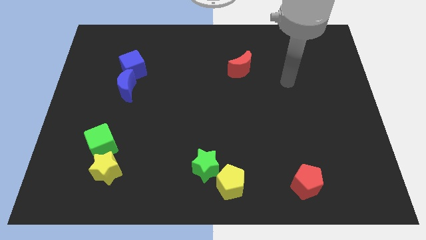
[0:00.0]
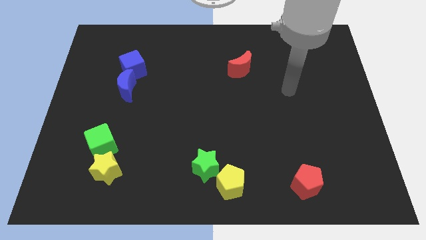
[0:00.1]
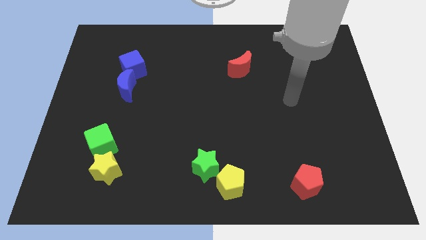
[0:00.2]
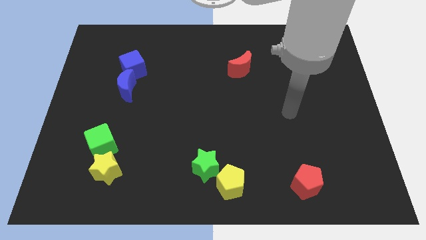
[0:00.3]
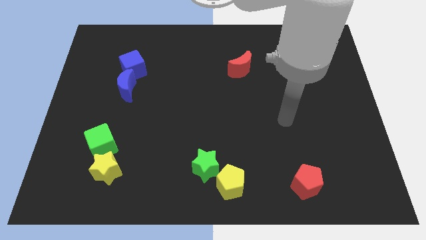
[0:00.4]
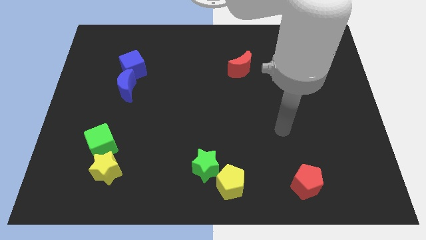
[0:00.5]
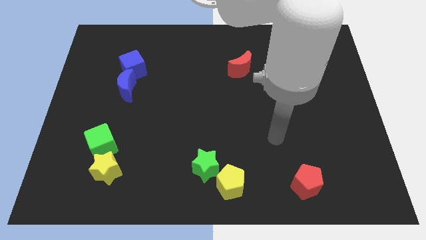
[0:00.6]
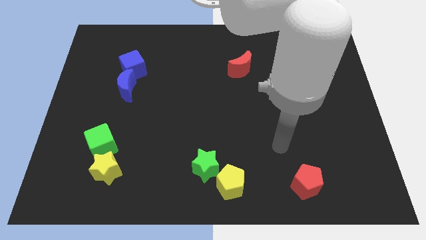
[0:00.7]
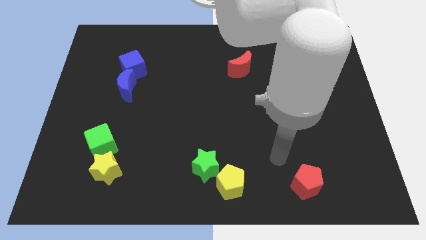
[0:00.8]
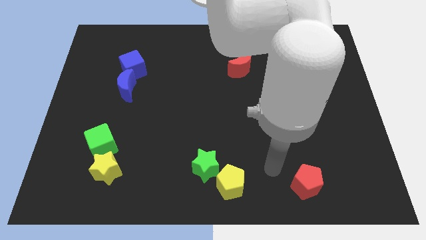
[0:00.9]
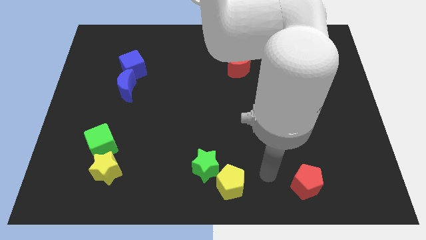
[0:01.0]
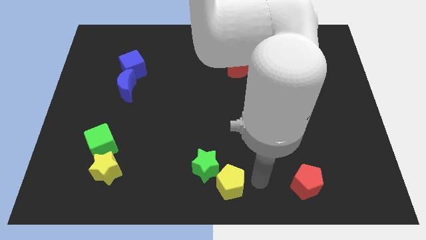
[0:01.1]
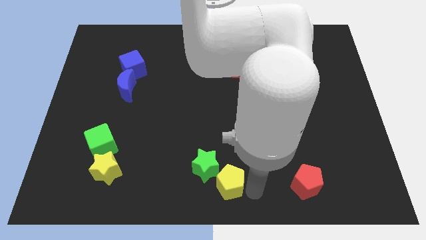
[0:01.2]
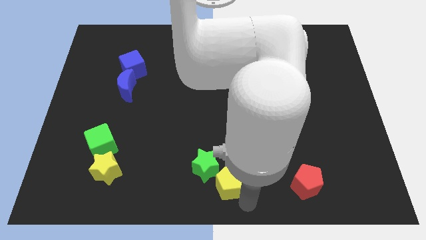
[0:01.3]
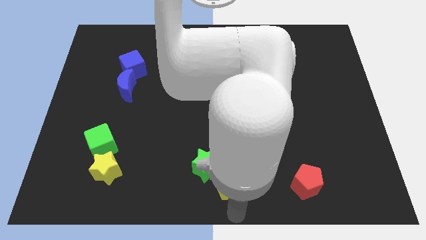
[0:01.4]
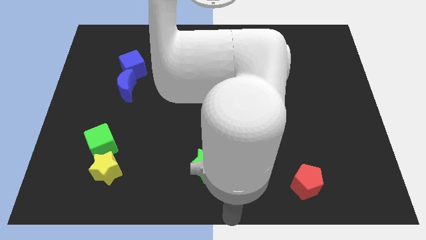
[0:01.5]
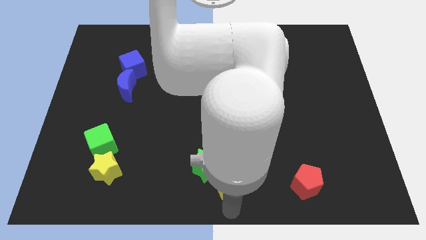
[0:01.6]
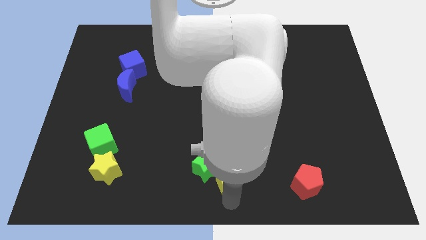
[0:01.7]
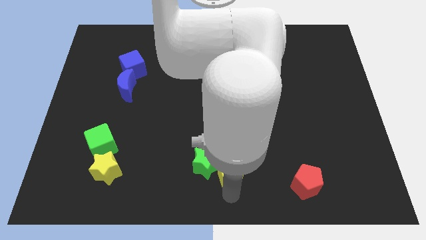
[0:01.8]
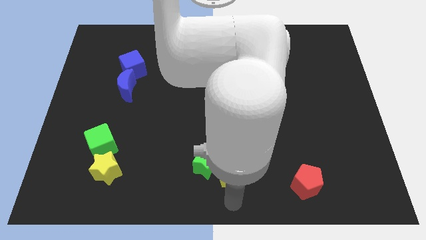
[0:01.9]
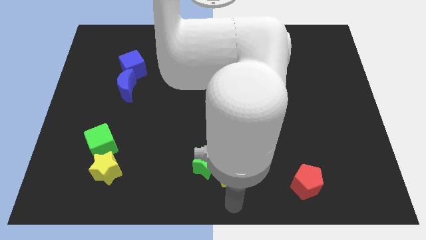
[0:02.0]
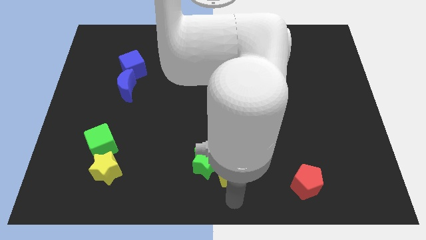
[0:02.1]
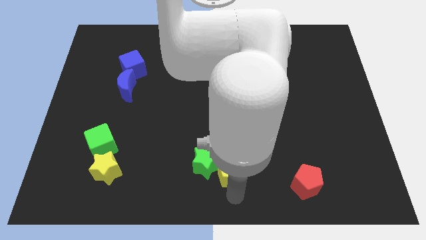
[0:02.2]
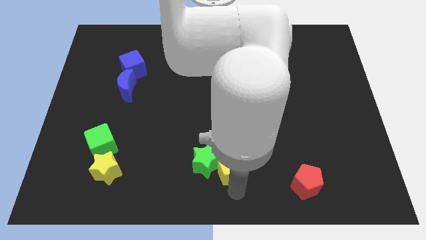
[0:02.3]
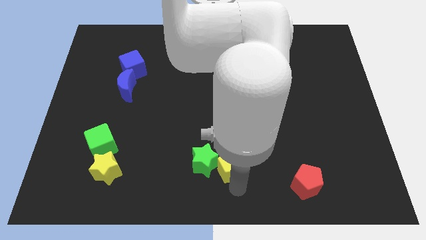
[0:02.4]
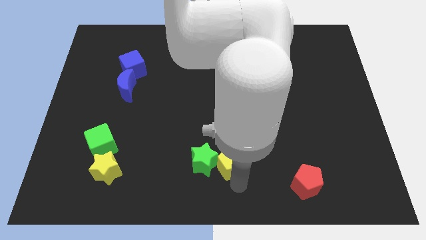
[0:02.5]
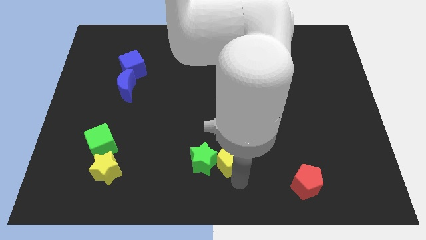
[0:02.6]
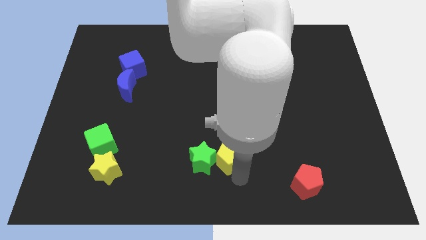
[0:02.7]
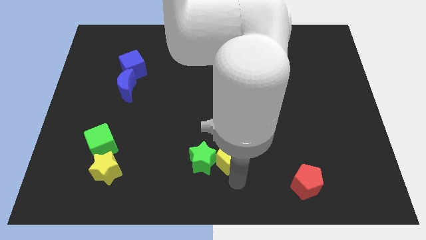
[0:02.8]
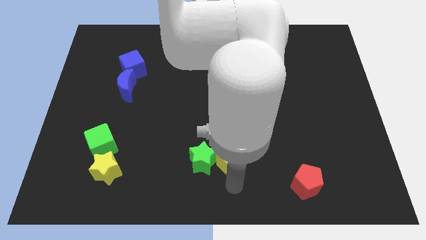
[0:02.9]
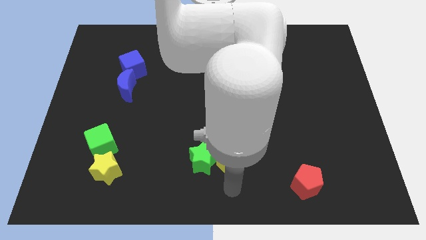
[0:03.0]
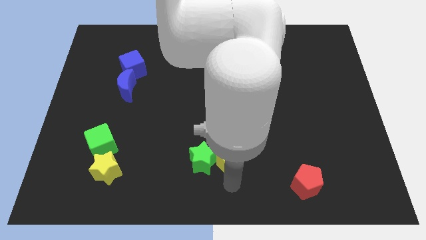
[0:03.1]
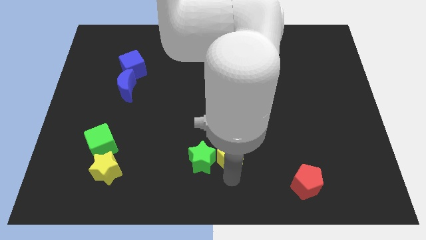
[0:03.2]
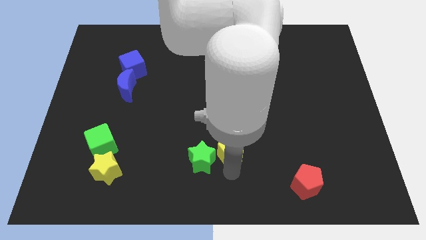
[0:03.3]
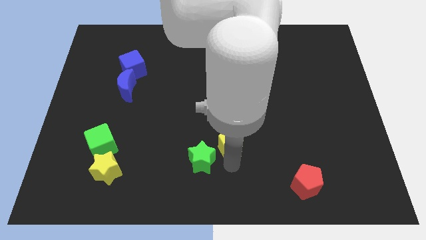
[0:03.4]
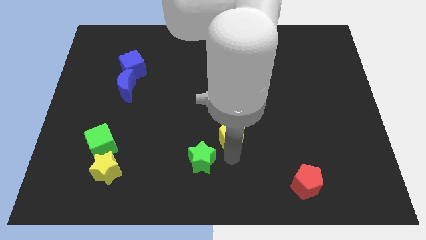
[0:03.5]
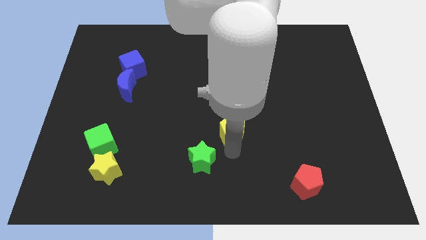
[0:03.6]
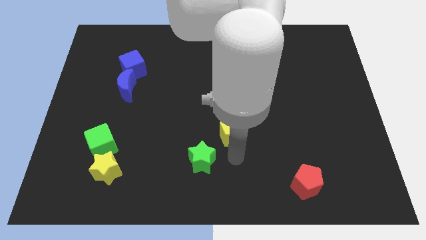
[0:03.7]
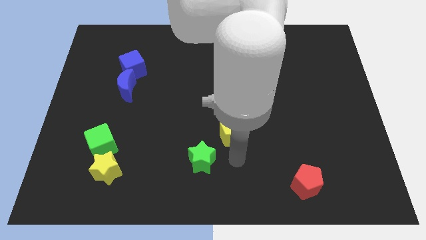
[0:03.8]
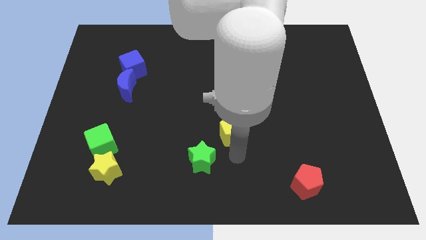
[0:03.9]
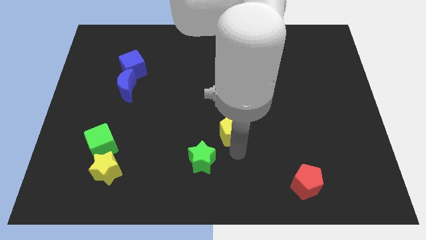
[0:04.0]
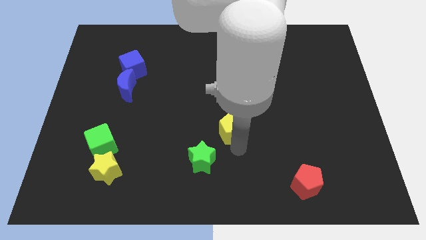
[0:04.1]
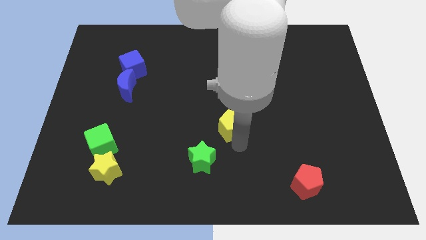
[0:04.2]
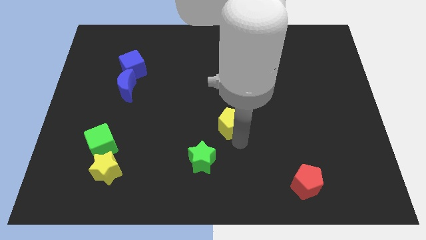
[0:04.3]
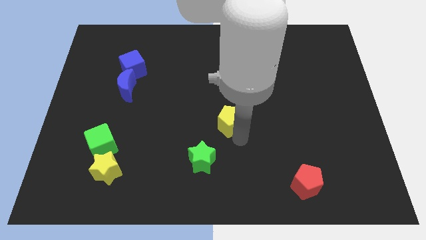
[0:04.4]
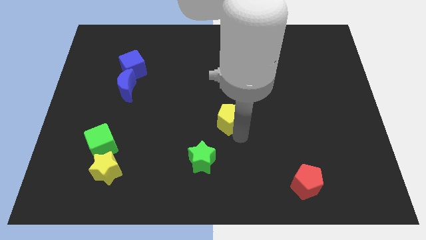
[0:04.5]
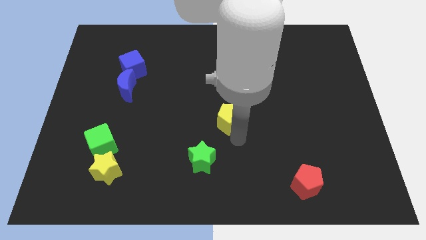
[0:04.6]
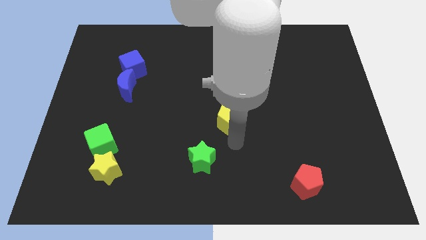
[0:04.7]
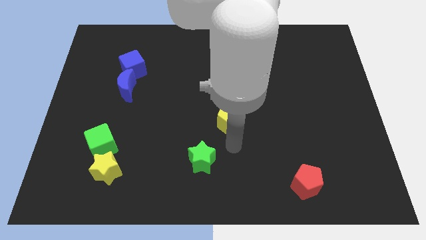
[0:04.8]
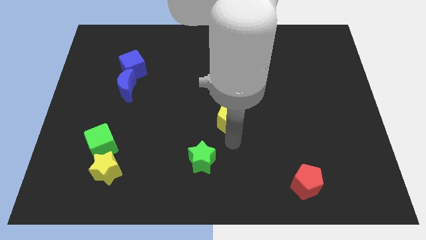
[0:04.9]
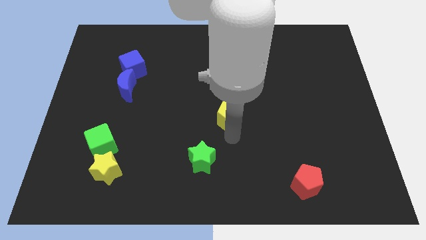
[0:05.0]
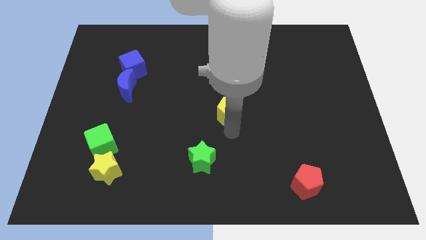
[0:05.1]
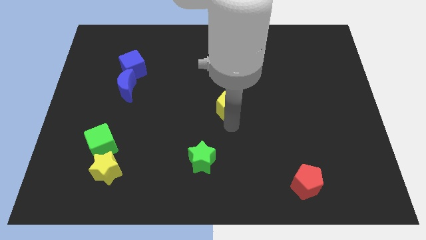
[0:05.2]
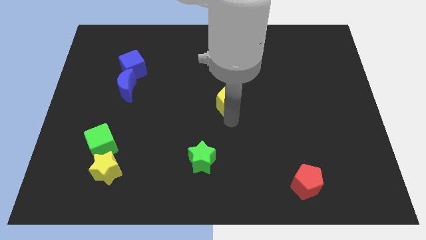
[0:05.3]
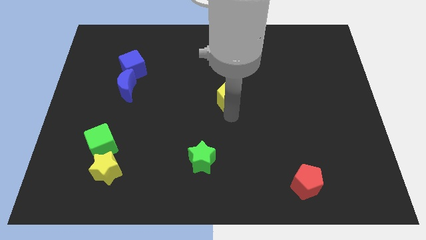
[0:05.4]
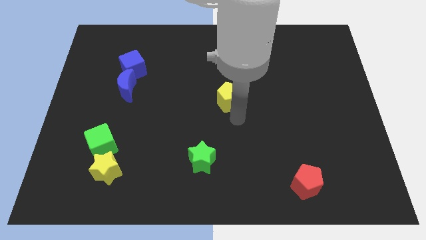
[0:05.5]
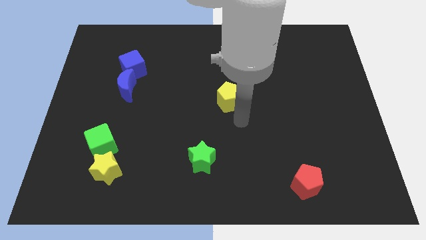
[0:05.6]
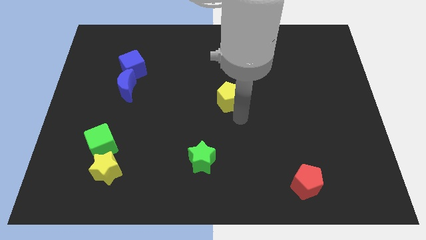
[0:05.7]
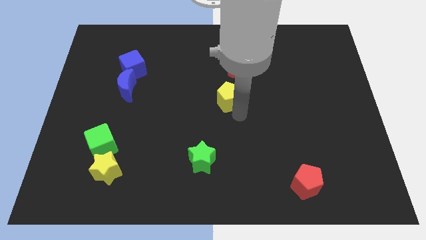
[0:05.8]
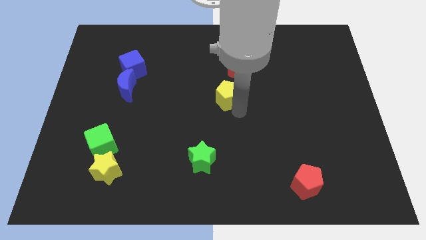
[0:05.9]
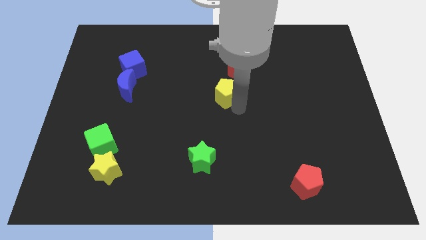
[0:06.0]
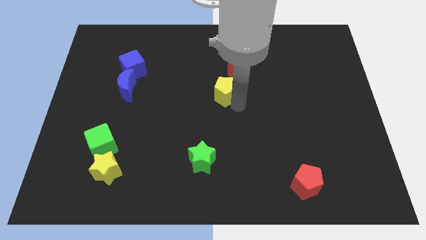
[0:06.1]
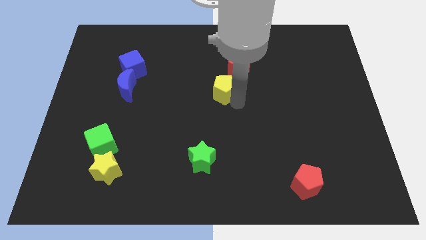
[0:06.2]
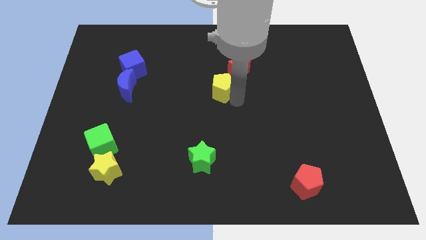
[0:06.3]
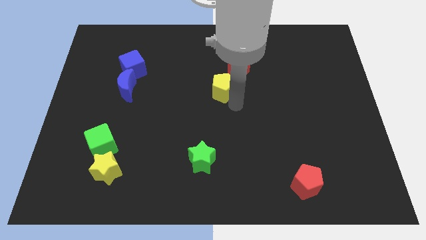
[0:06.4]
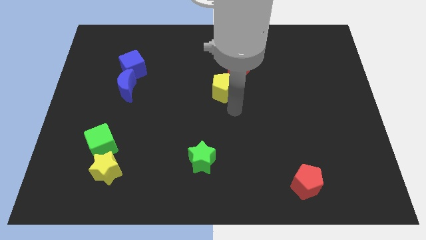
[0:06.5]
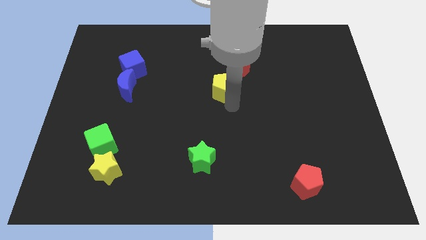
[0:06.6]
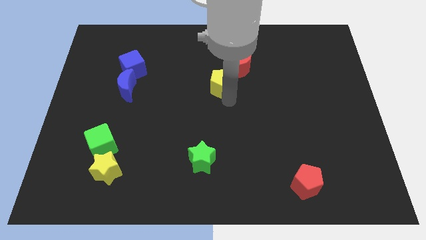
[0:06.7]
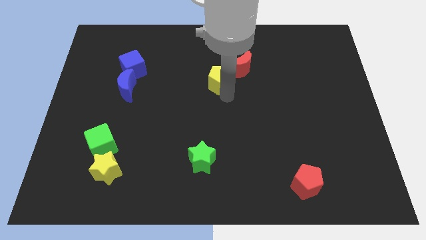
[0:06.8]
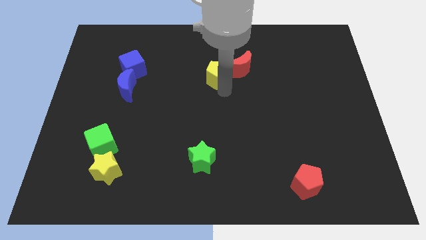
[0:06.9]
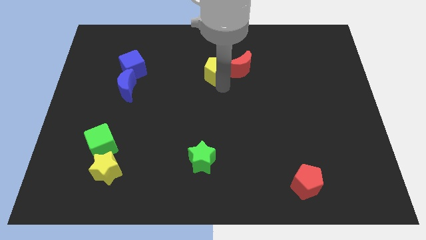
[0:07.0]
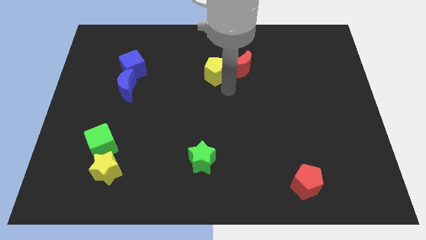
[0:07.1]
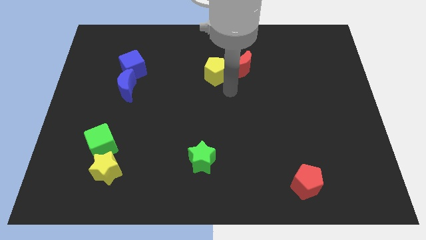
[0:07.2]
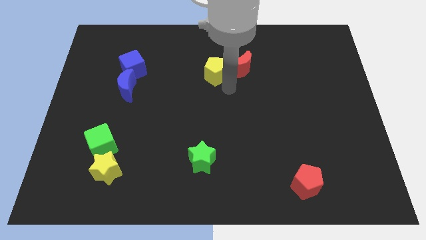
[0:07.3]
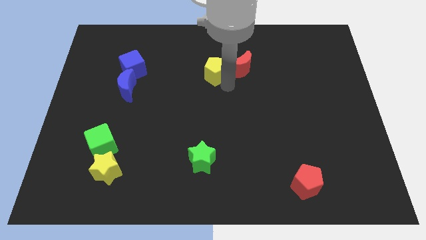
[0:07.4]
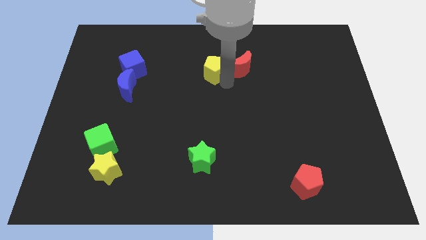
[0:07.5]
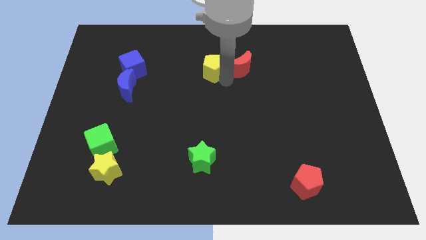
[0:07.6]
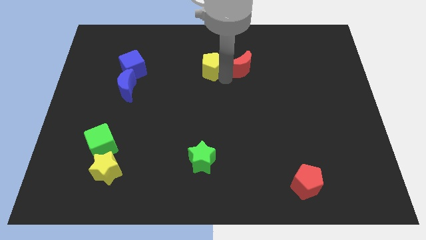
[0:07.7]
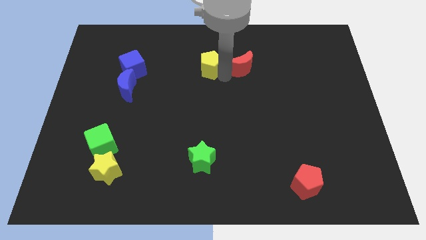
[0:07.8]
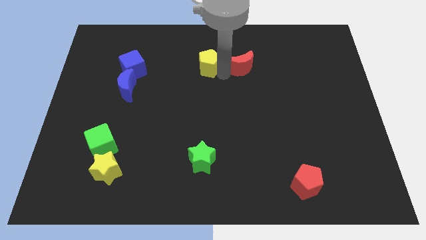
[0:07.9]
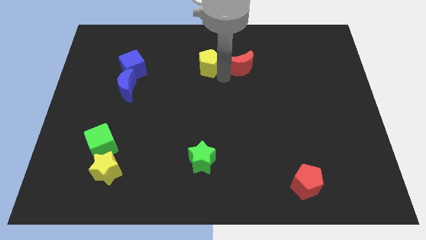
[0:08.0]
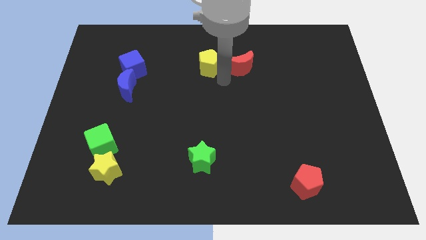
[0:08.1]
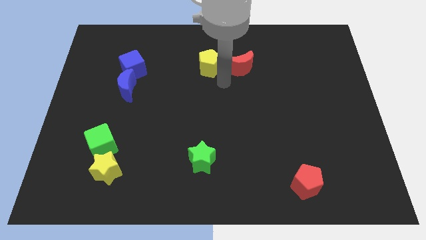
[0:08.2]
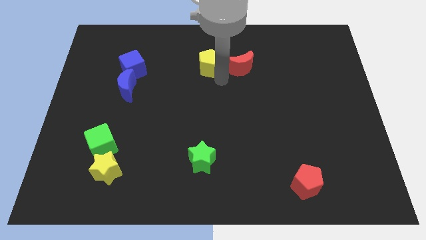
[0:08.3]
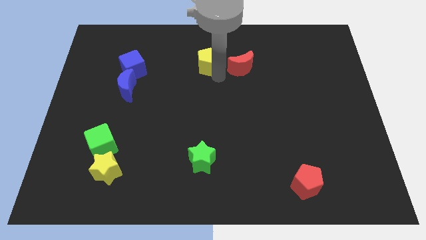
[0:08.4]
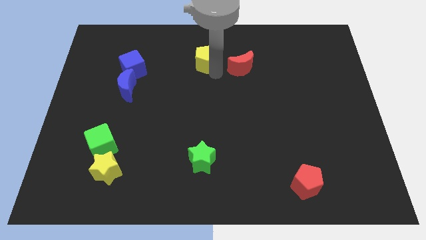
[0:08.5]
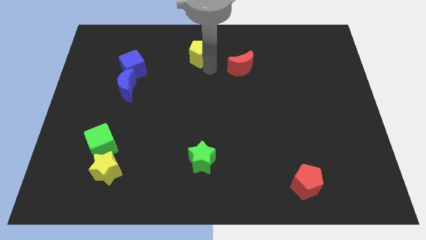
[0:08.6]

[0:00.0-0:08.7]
slide the yellow pentagon to the top side
